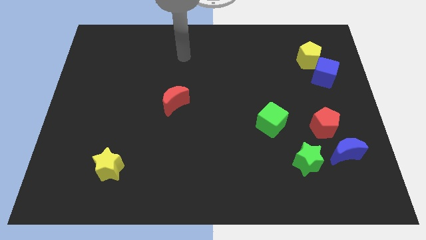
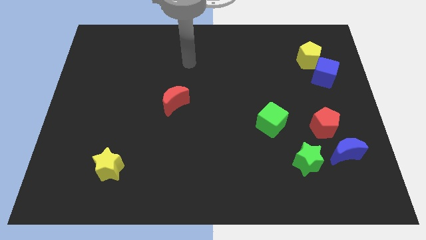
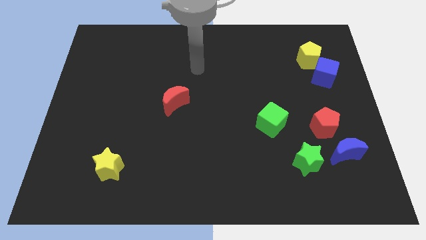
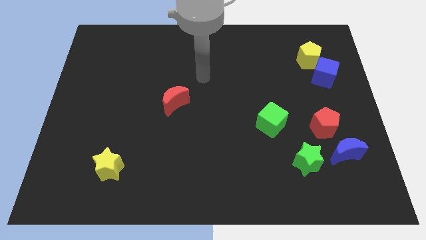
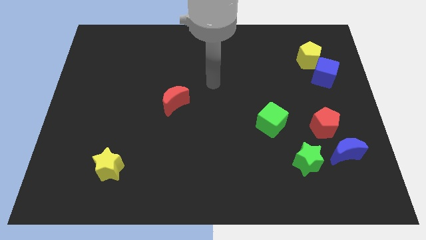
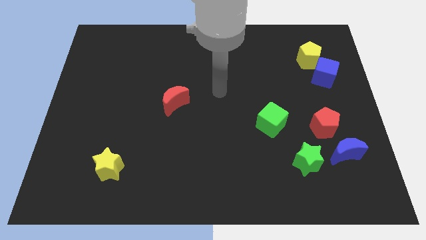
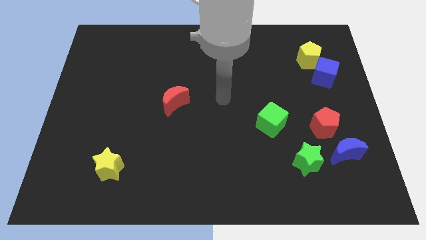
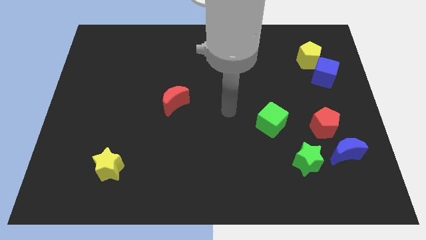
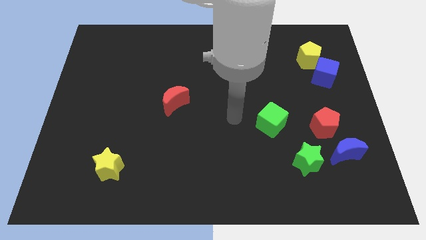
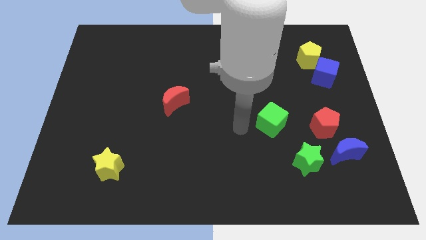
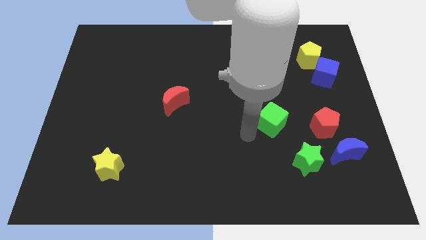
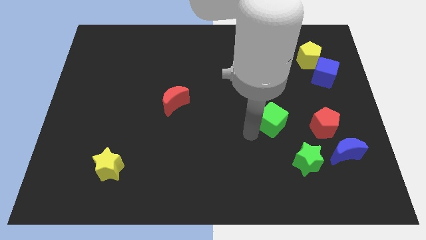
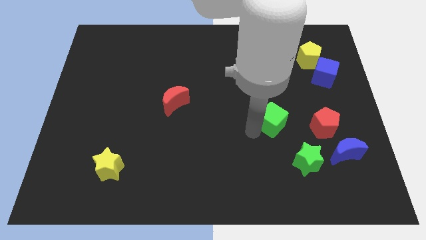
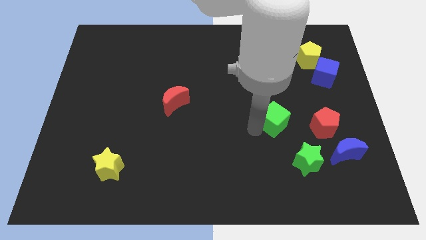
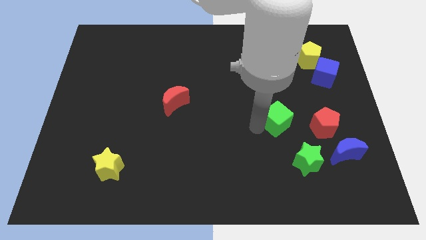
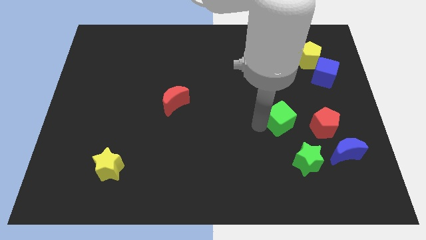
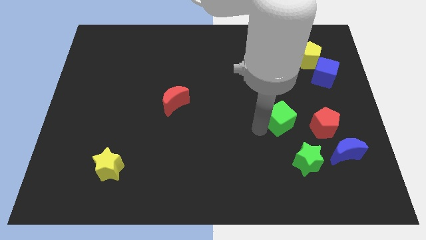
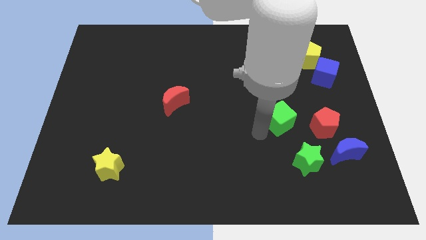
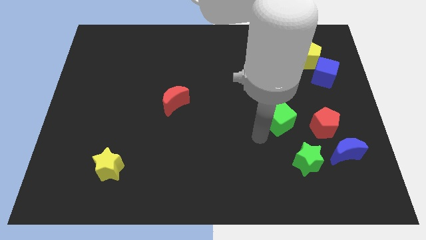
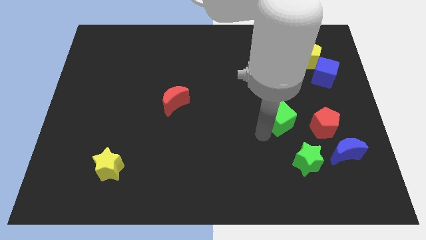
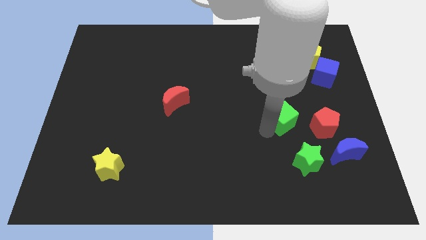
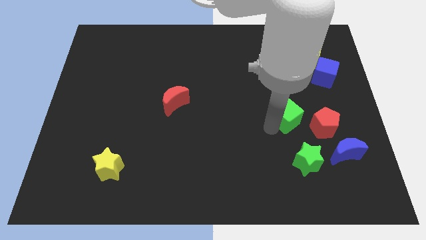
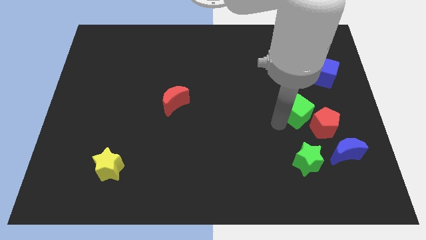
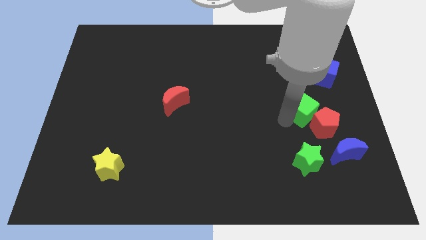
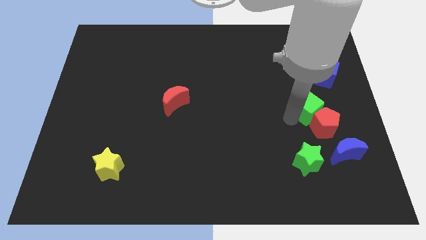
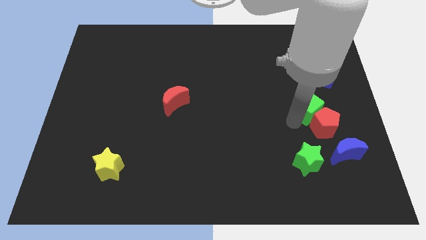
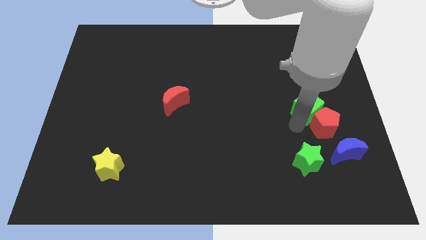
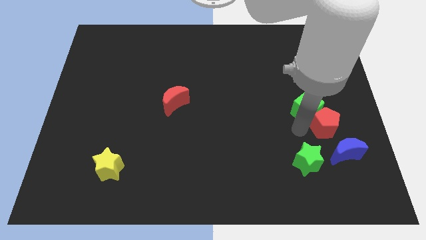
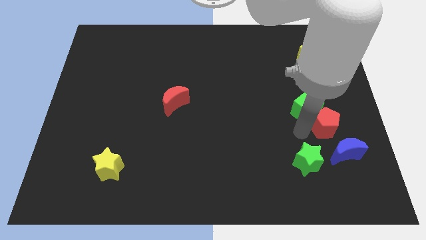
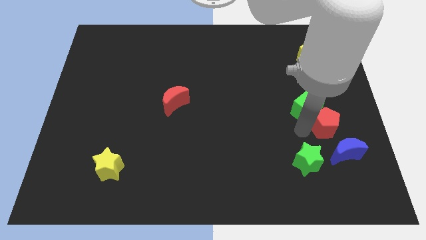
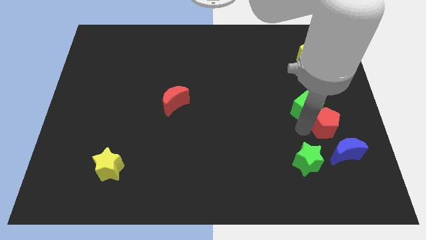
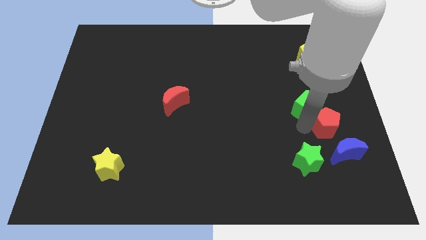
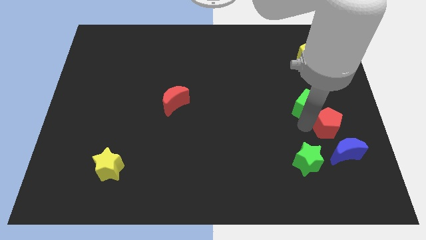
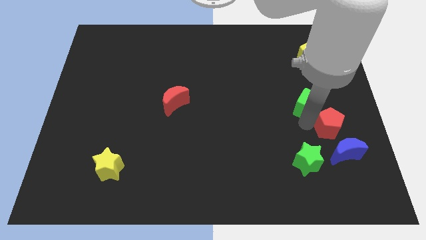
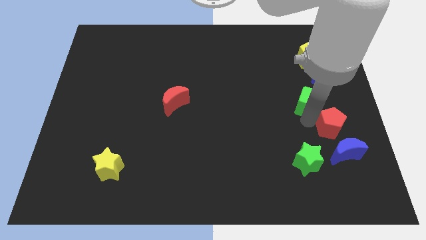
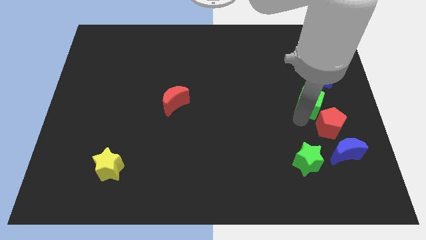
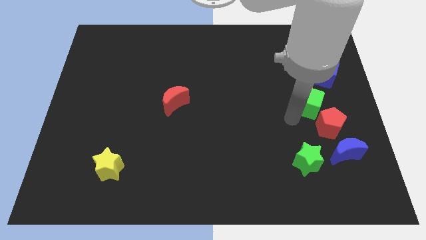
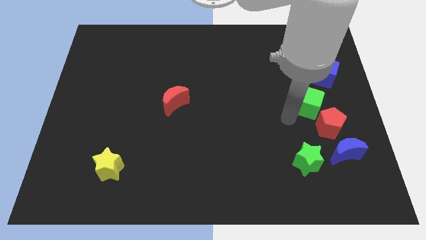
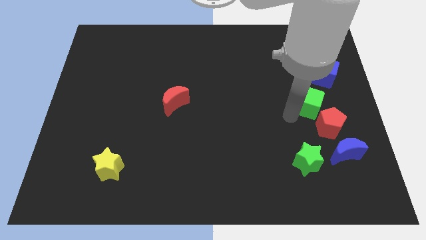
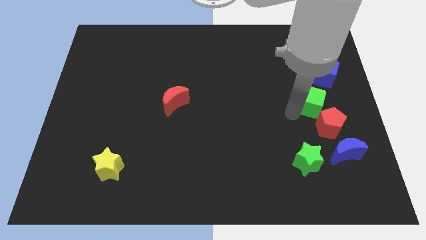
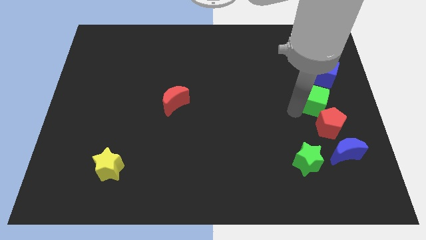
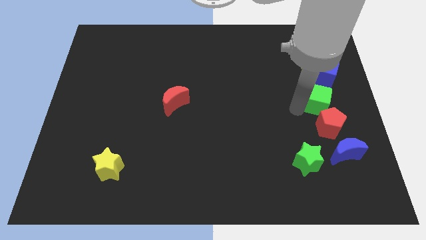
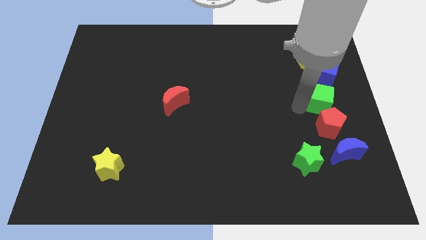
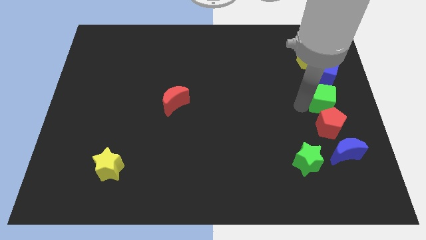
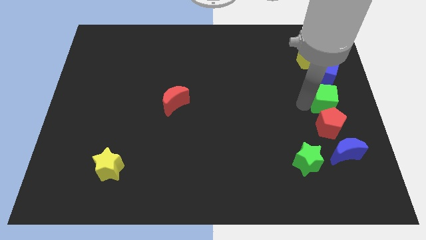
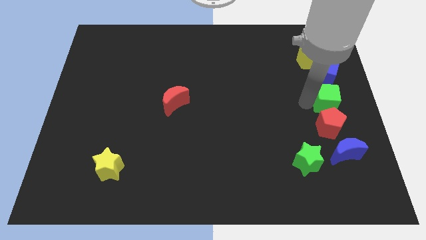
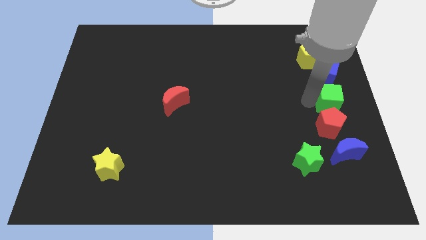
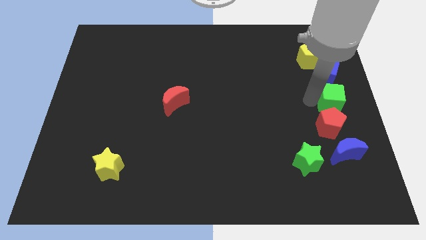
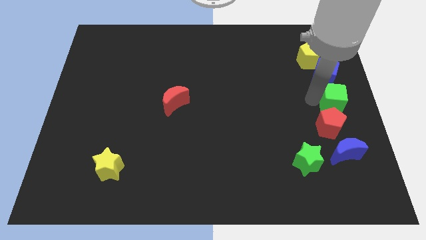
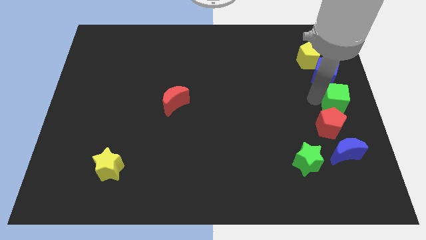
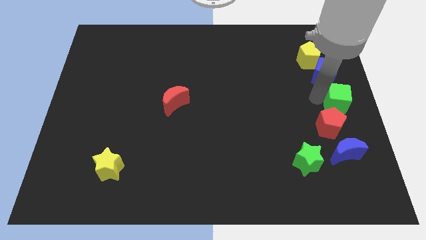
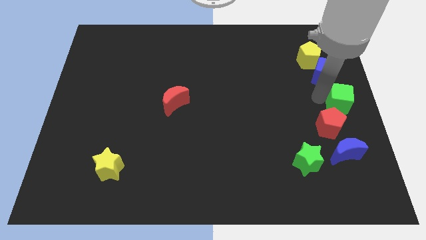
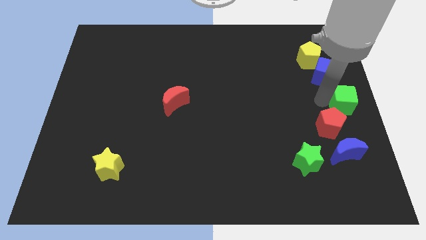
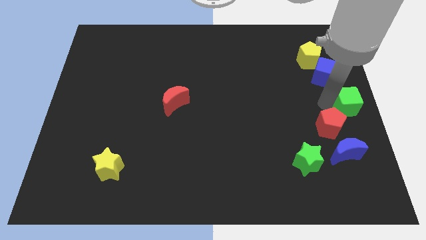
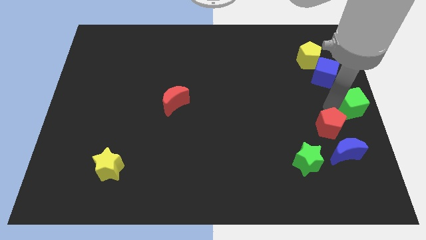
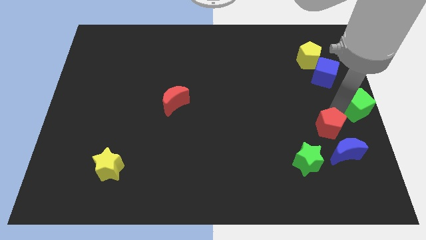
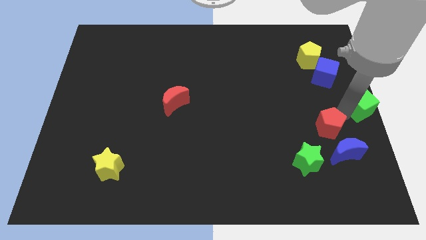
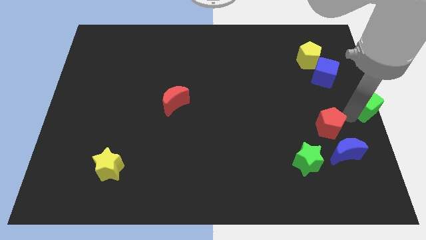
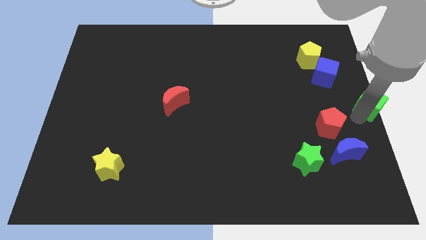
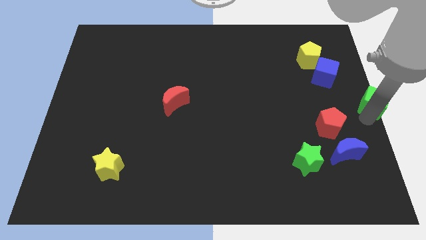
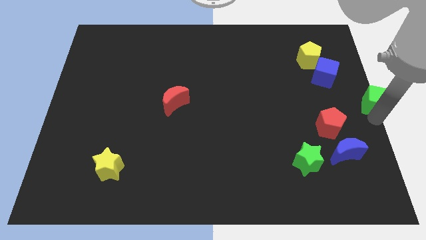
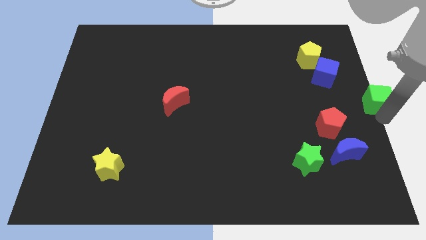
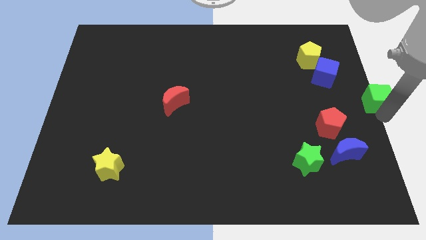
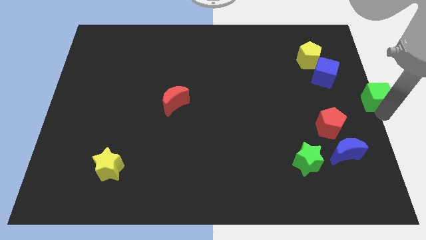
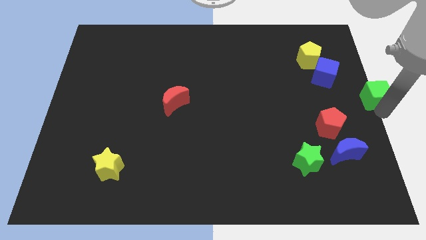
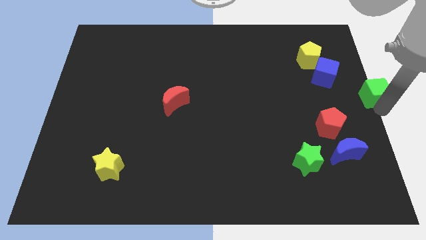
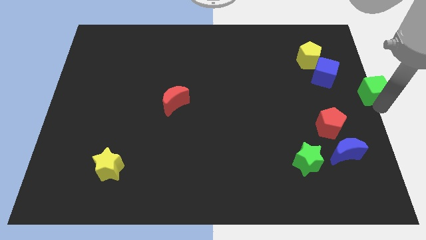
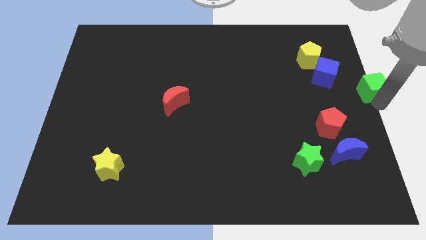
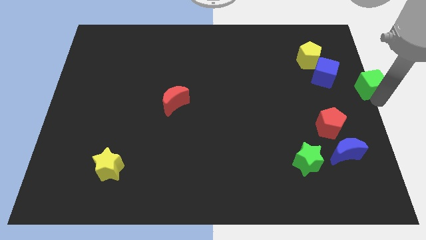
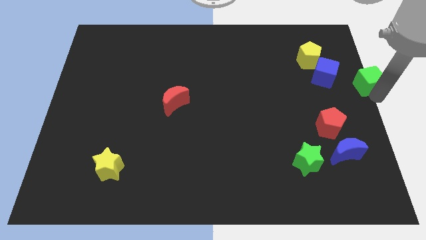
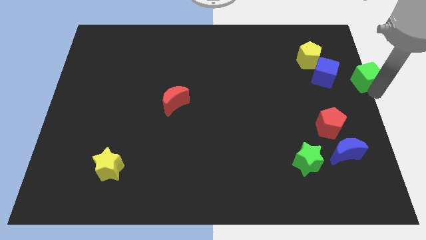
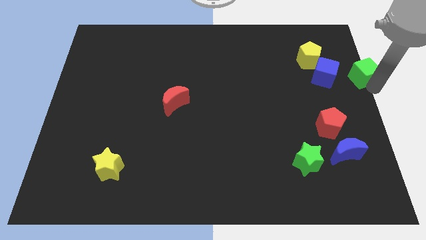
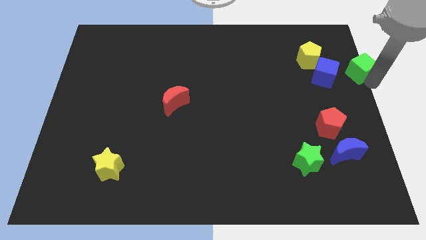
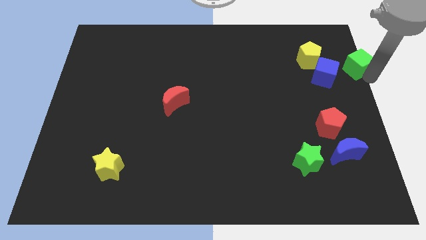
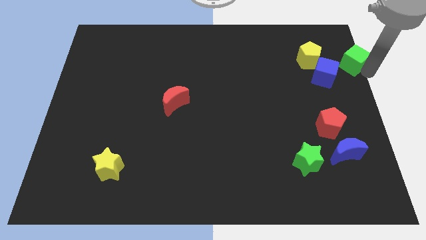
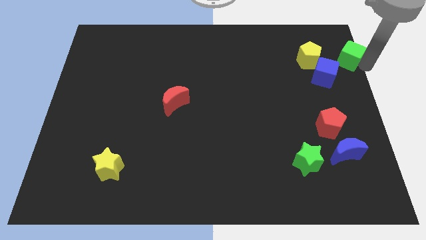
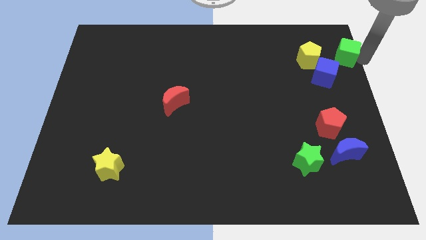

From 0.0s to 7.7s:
slide the green cube to the top right
